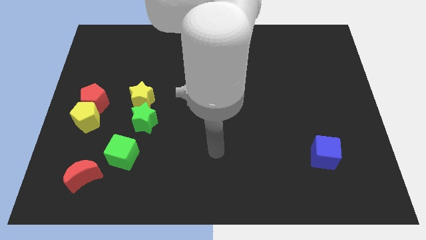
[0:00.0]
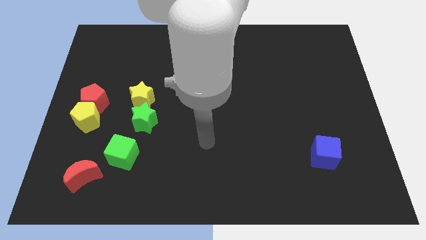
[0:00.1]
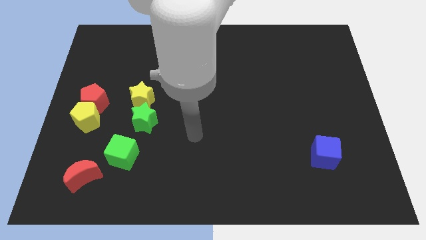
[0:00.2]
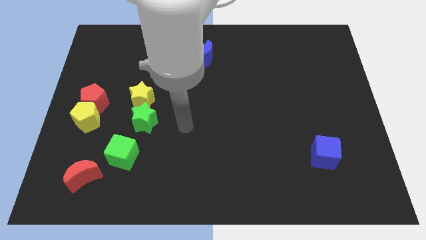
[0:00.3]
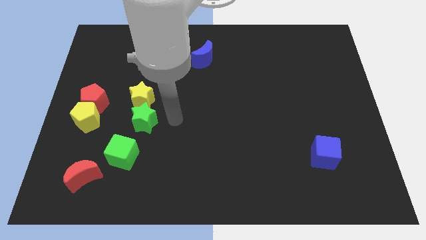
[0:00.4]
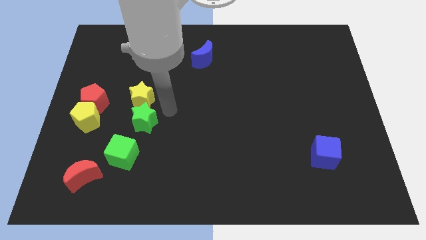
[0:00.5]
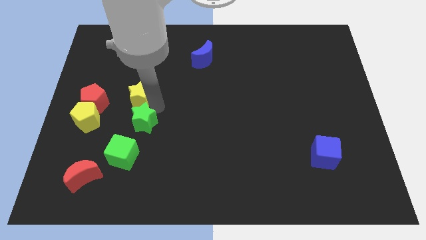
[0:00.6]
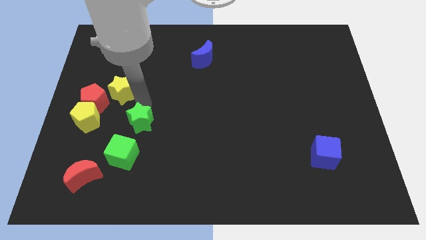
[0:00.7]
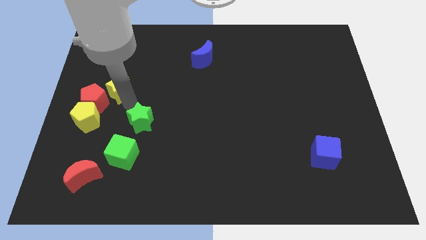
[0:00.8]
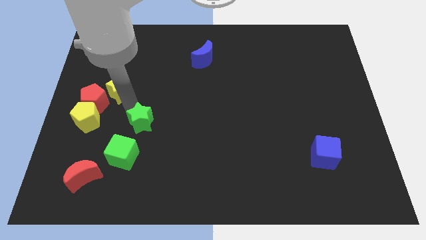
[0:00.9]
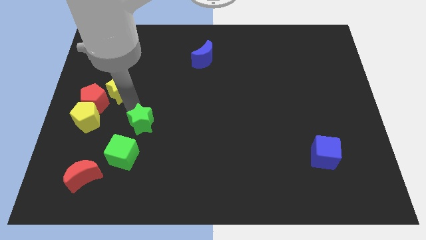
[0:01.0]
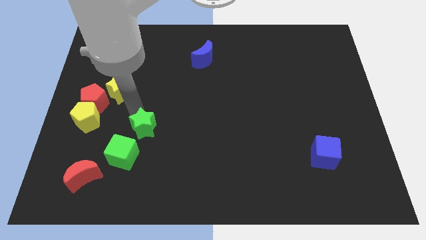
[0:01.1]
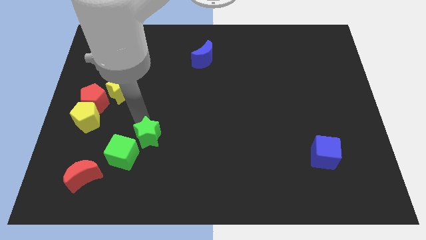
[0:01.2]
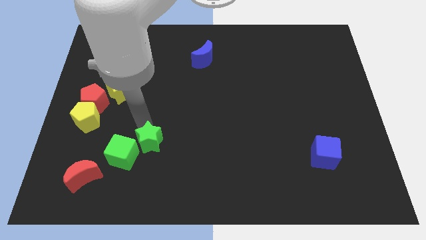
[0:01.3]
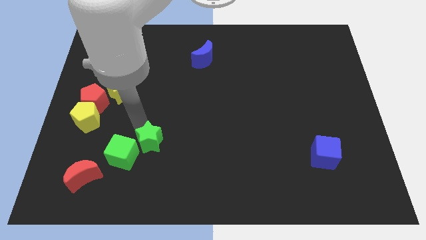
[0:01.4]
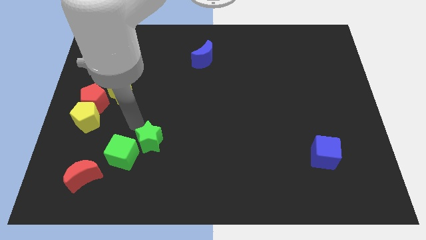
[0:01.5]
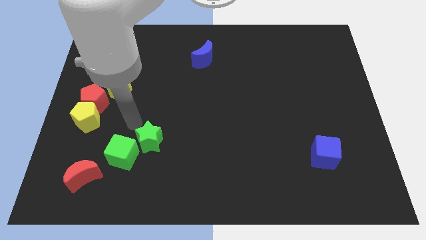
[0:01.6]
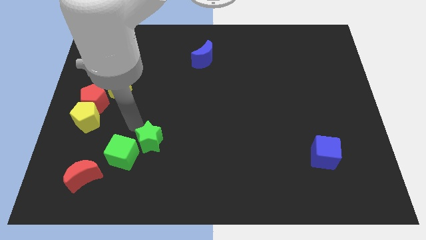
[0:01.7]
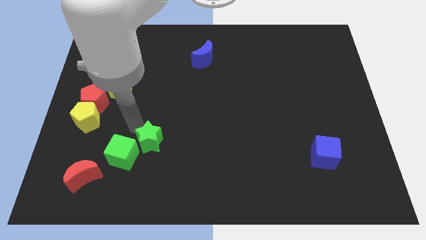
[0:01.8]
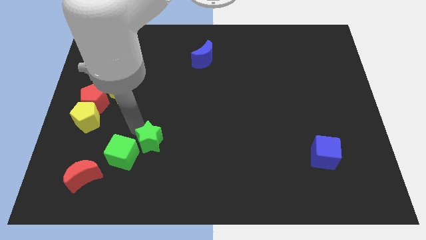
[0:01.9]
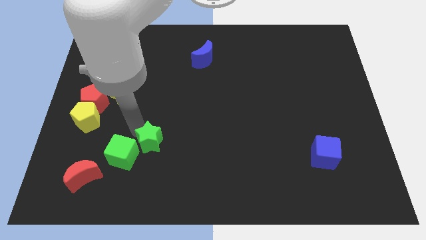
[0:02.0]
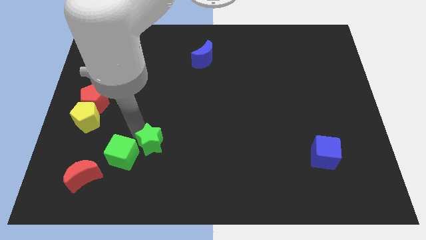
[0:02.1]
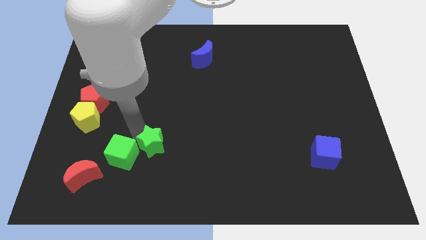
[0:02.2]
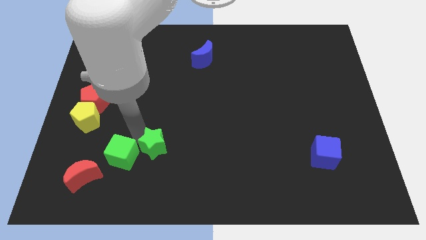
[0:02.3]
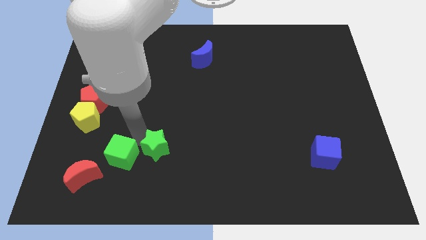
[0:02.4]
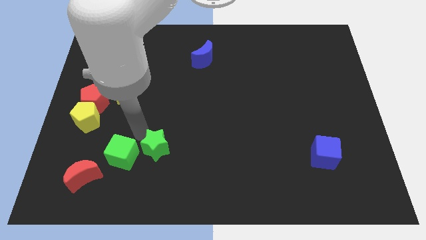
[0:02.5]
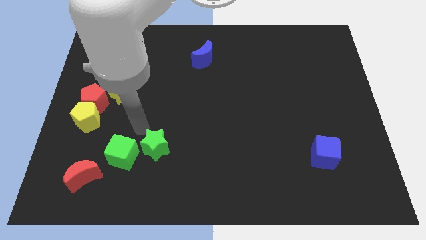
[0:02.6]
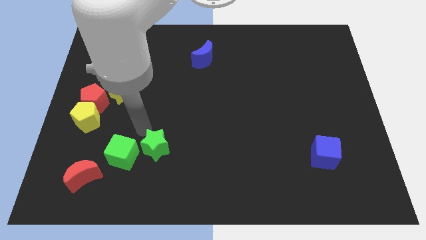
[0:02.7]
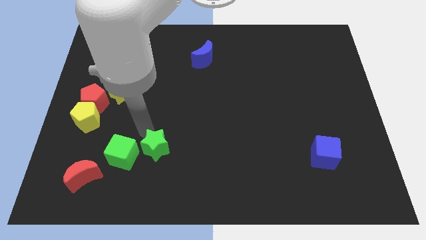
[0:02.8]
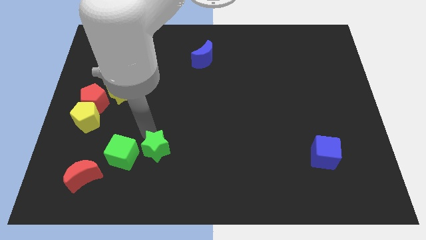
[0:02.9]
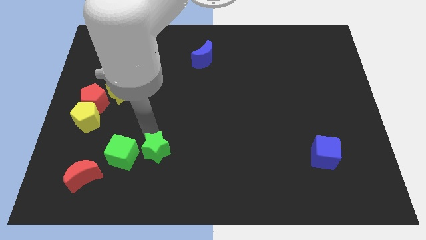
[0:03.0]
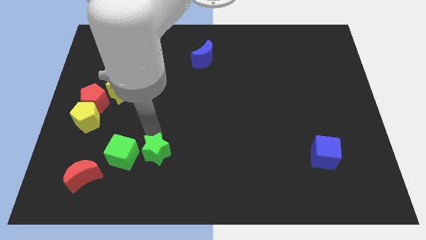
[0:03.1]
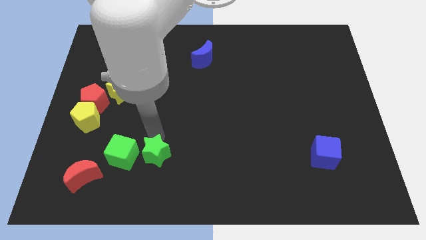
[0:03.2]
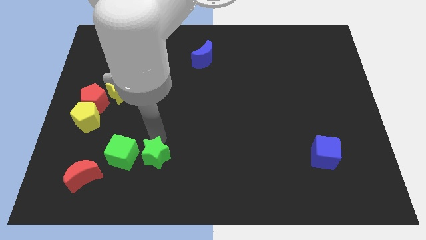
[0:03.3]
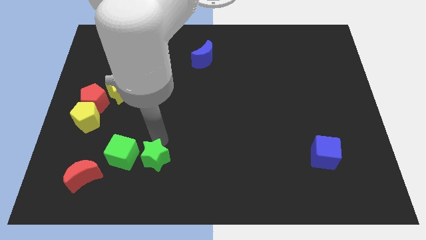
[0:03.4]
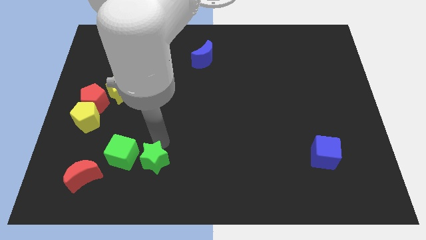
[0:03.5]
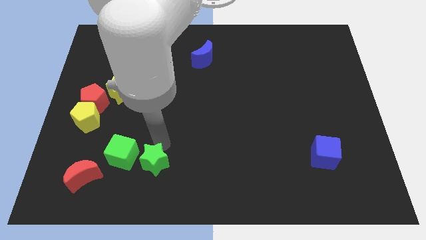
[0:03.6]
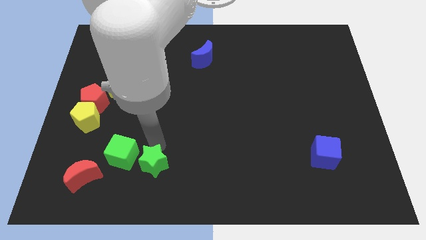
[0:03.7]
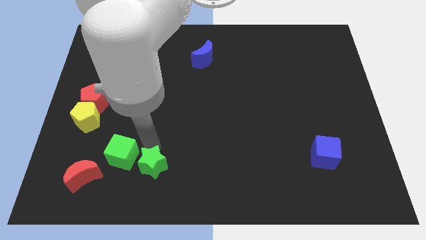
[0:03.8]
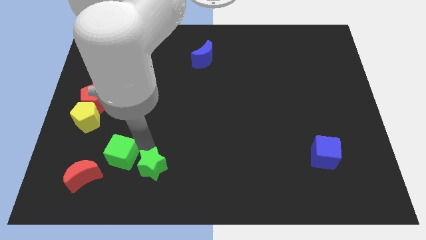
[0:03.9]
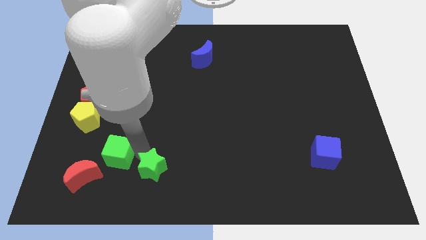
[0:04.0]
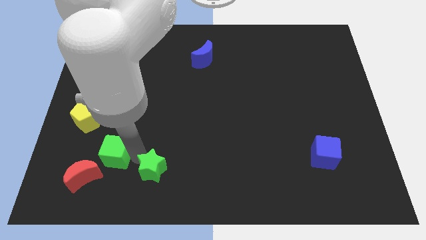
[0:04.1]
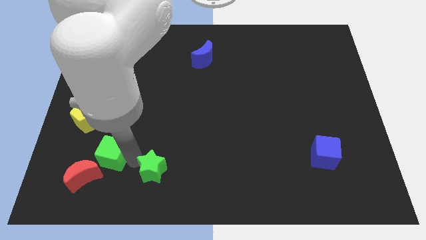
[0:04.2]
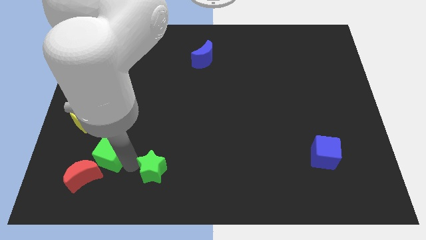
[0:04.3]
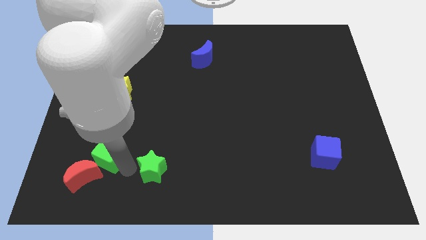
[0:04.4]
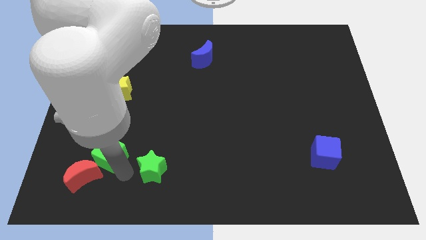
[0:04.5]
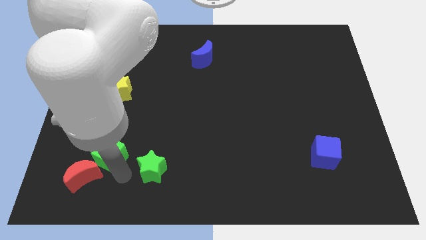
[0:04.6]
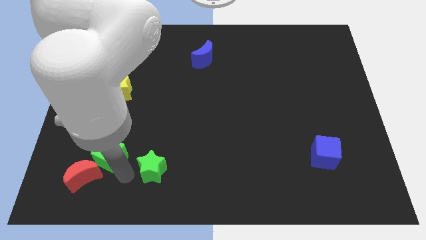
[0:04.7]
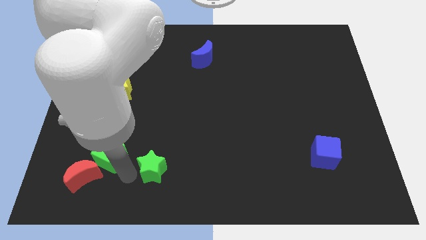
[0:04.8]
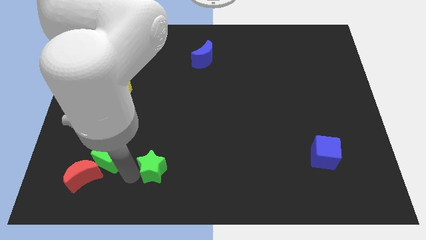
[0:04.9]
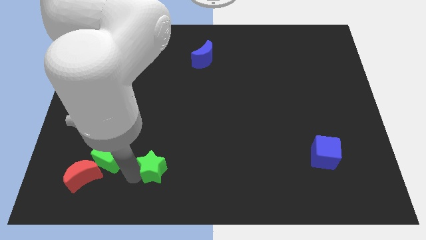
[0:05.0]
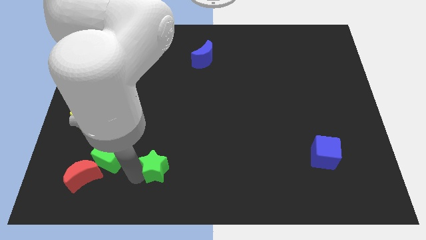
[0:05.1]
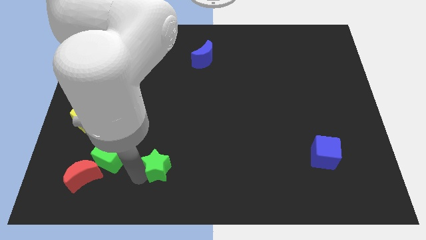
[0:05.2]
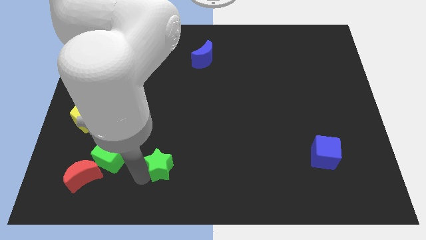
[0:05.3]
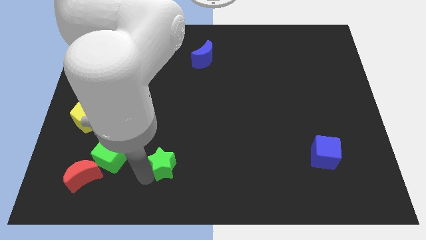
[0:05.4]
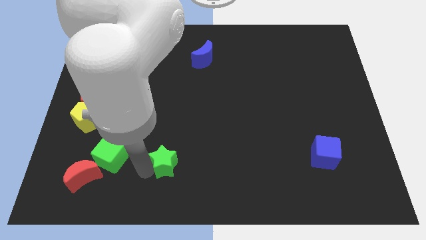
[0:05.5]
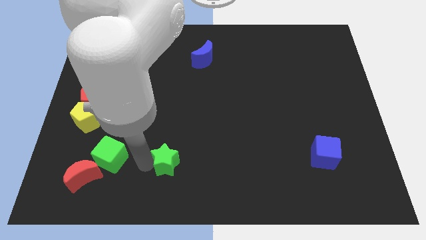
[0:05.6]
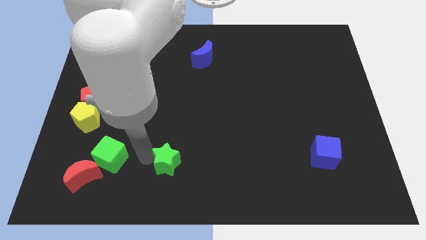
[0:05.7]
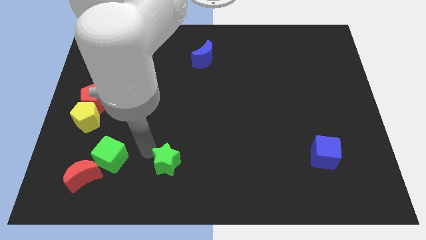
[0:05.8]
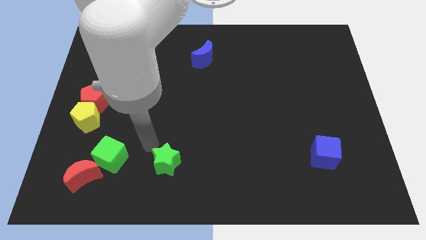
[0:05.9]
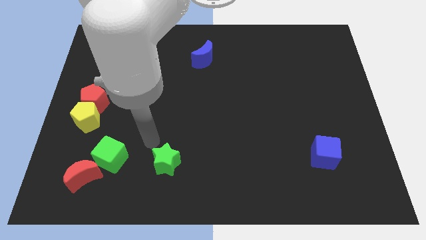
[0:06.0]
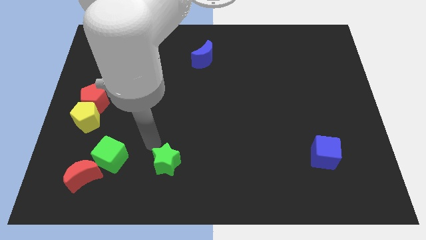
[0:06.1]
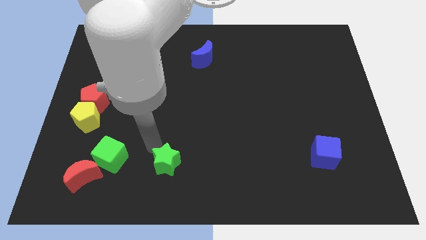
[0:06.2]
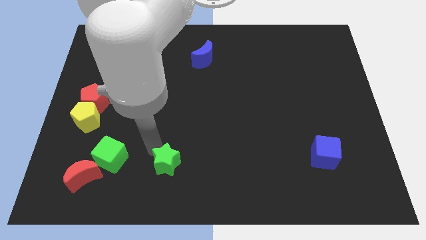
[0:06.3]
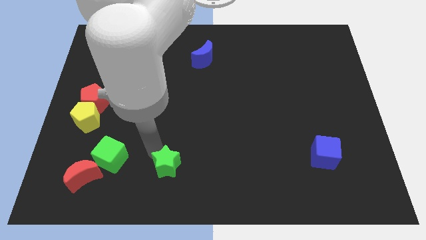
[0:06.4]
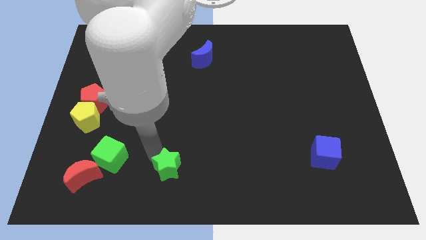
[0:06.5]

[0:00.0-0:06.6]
move the green star to the bottom

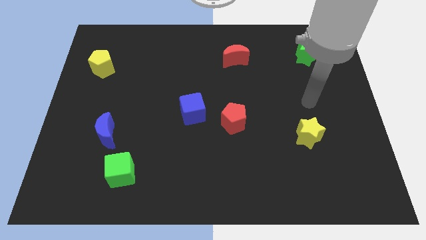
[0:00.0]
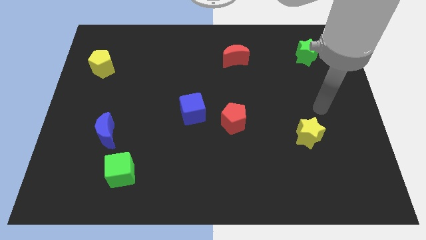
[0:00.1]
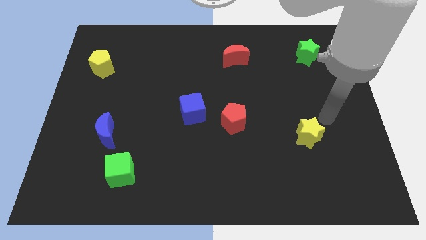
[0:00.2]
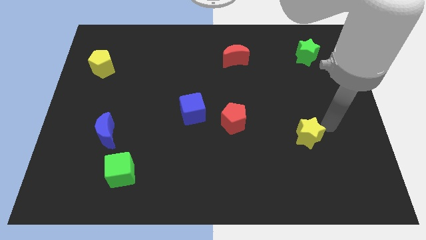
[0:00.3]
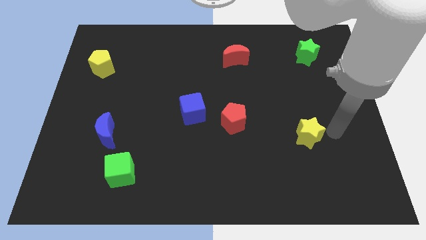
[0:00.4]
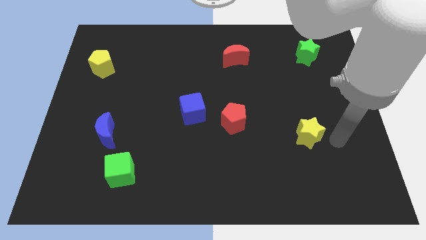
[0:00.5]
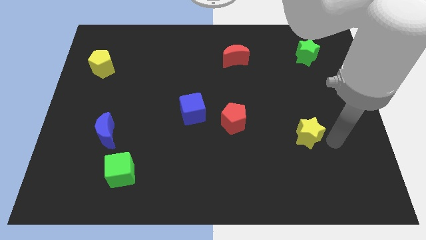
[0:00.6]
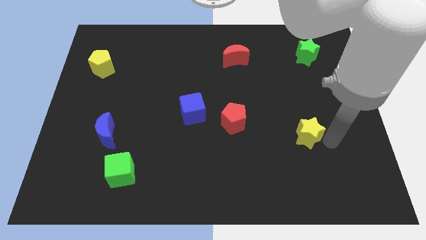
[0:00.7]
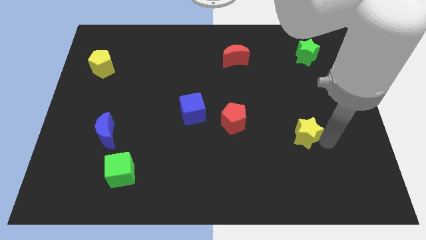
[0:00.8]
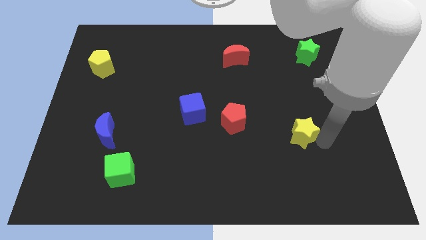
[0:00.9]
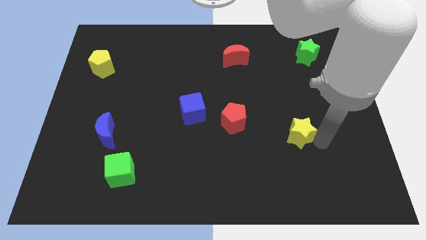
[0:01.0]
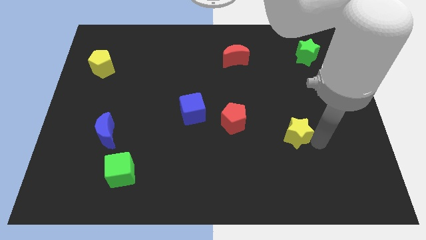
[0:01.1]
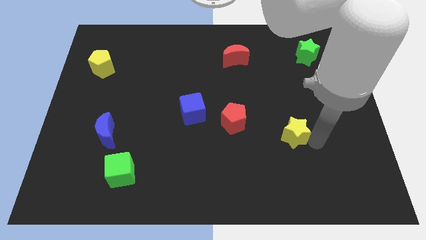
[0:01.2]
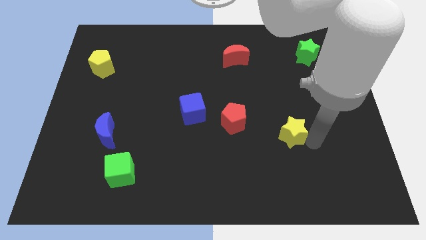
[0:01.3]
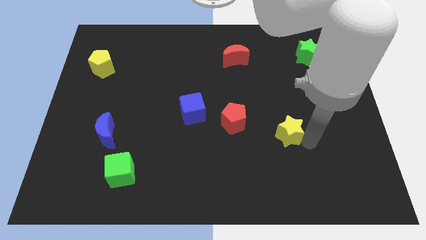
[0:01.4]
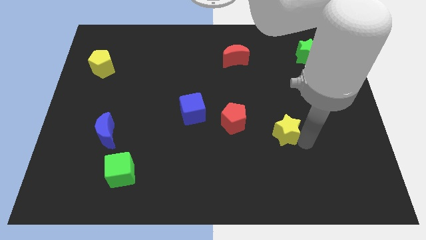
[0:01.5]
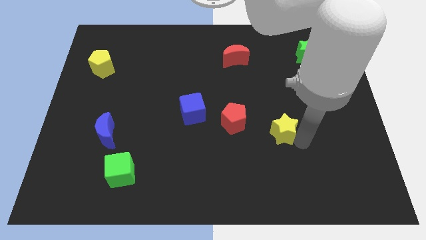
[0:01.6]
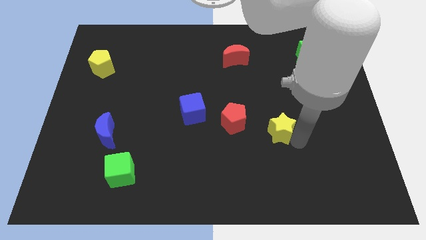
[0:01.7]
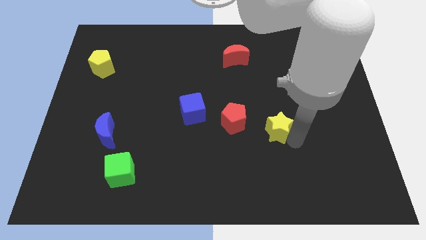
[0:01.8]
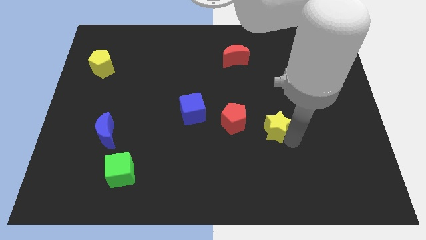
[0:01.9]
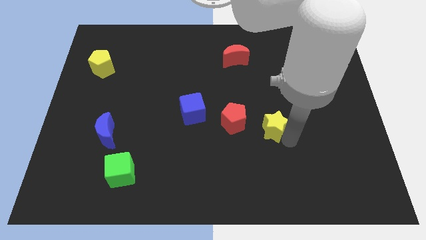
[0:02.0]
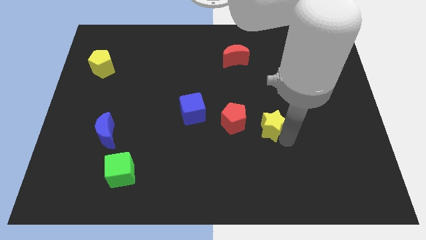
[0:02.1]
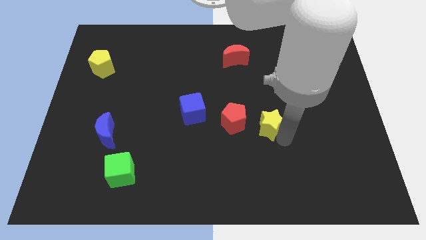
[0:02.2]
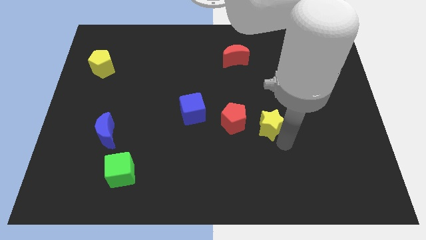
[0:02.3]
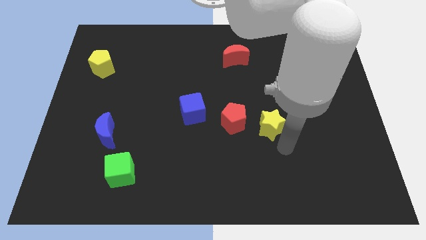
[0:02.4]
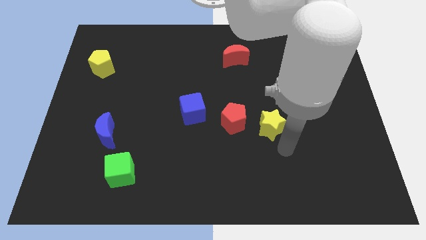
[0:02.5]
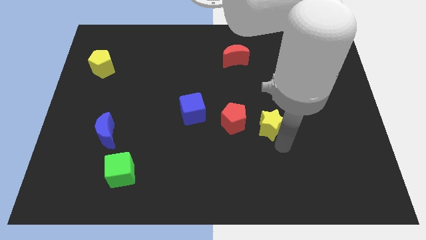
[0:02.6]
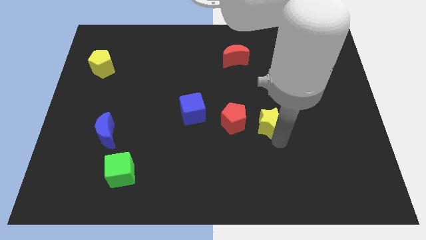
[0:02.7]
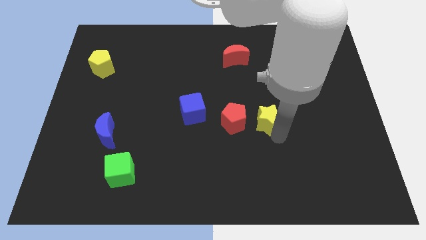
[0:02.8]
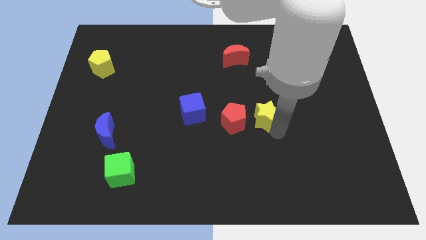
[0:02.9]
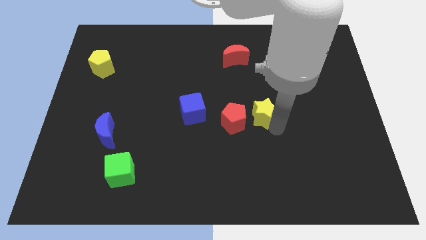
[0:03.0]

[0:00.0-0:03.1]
put the yellow star to the center of the board
